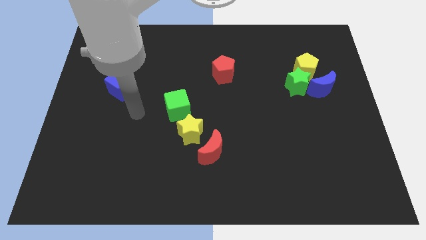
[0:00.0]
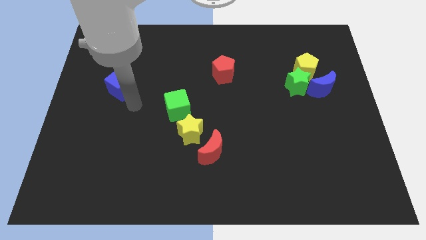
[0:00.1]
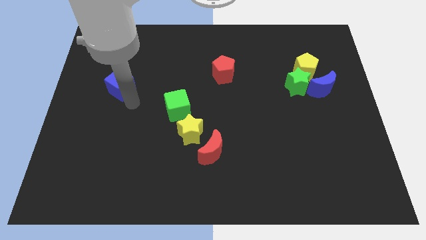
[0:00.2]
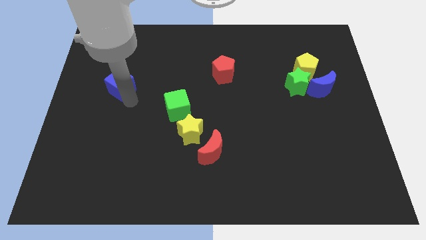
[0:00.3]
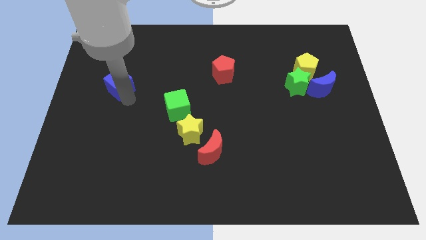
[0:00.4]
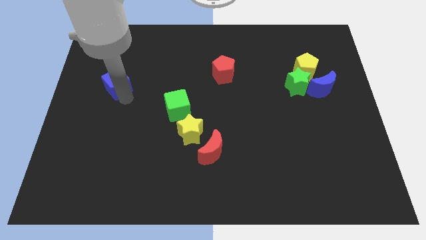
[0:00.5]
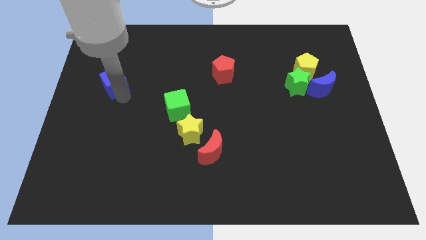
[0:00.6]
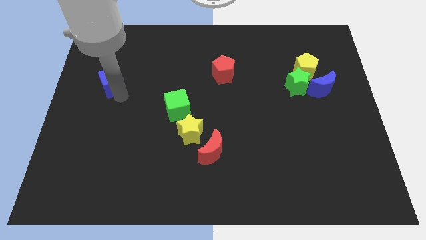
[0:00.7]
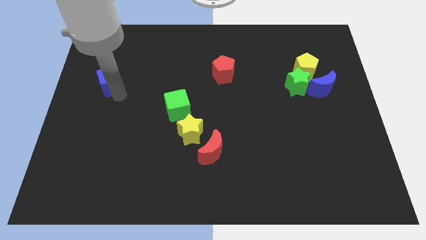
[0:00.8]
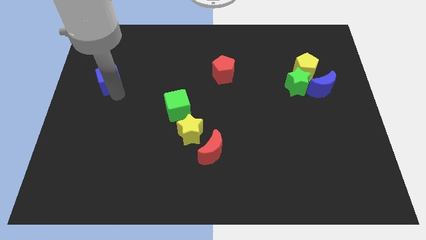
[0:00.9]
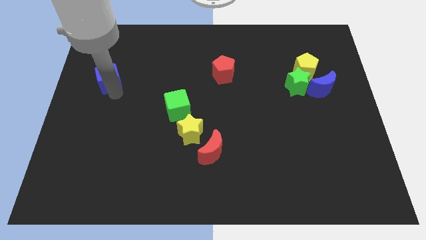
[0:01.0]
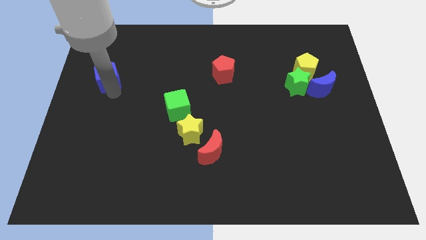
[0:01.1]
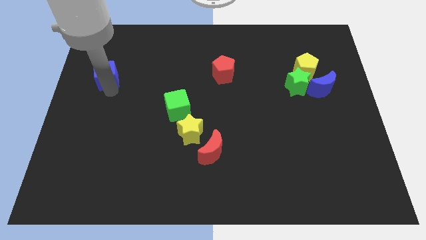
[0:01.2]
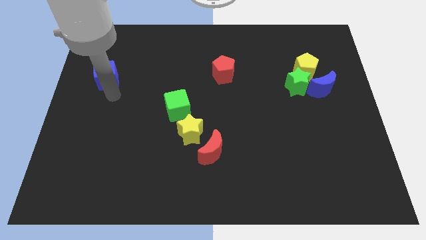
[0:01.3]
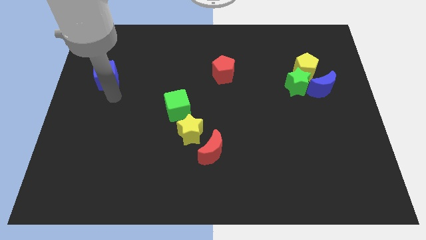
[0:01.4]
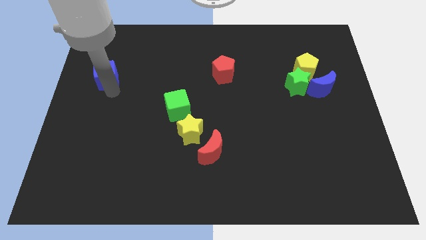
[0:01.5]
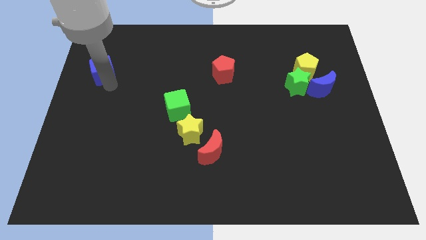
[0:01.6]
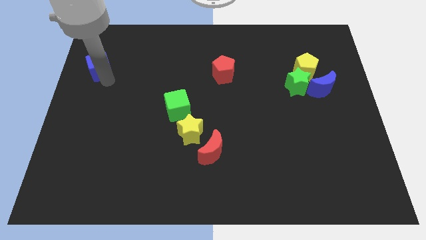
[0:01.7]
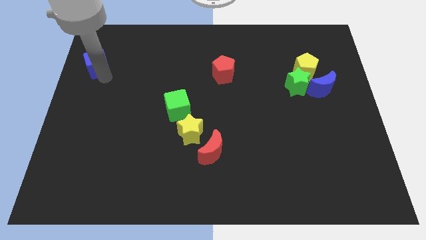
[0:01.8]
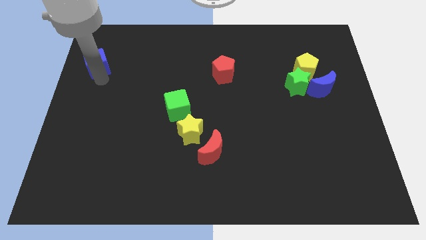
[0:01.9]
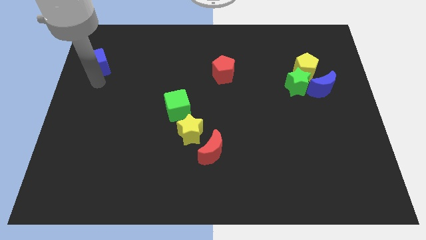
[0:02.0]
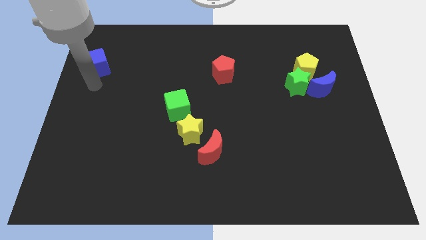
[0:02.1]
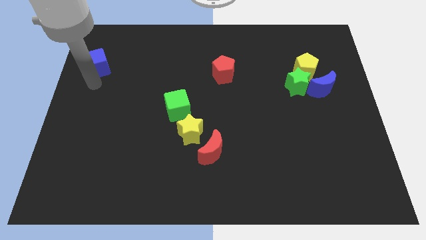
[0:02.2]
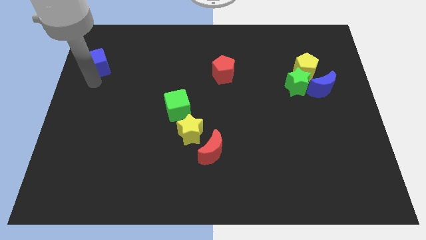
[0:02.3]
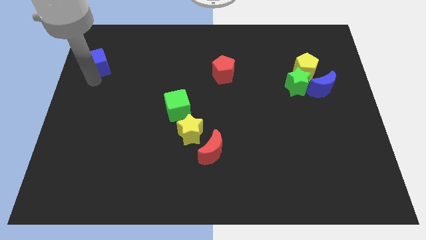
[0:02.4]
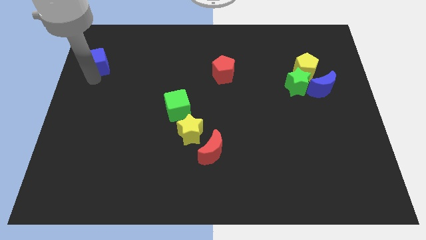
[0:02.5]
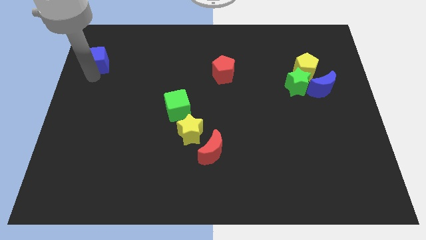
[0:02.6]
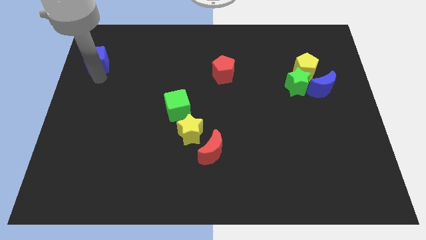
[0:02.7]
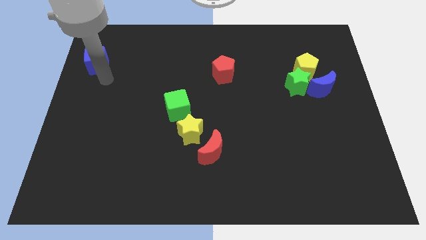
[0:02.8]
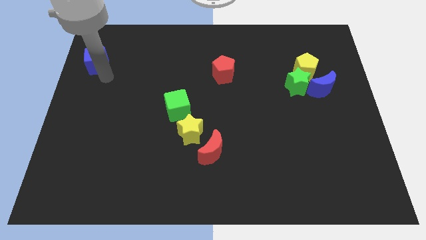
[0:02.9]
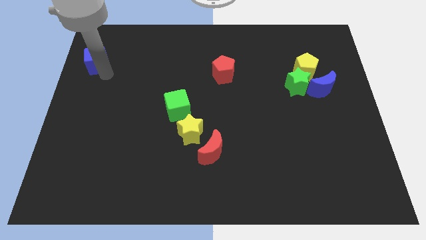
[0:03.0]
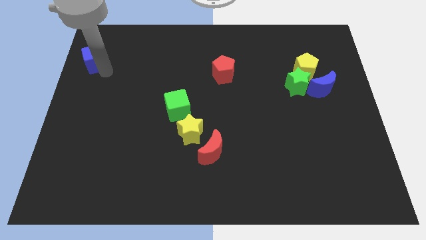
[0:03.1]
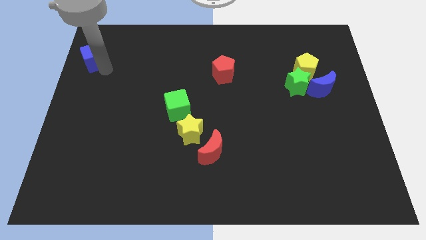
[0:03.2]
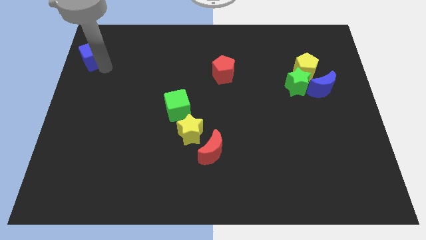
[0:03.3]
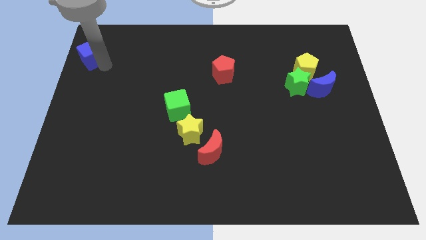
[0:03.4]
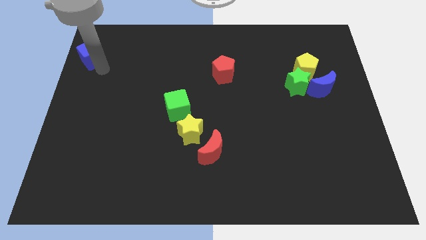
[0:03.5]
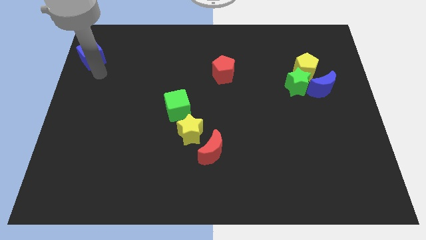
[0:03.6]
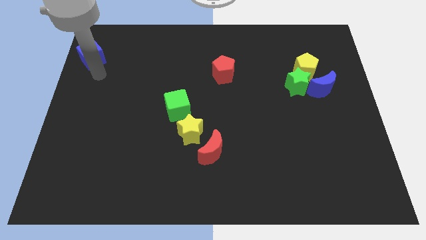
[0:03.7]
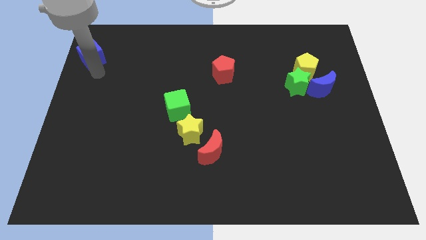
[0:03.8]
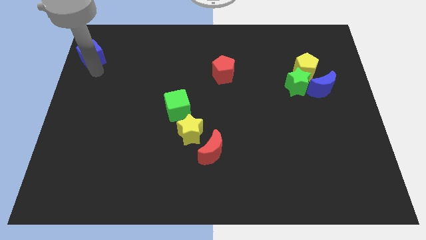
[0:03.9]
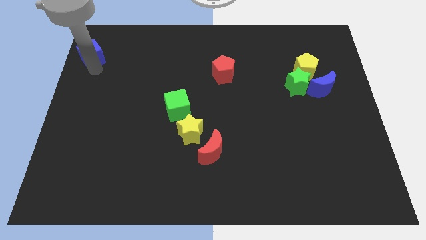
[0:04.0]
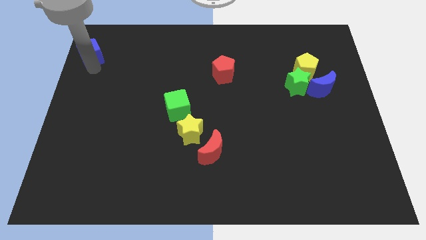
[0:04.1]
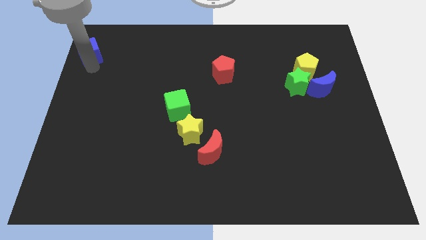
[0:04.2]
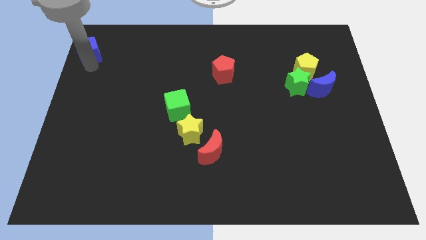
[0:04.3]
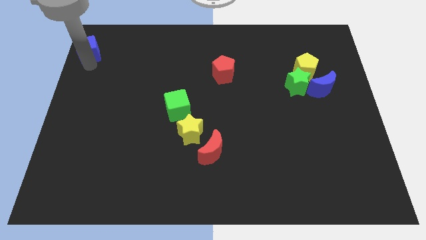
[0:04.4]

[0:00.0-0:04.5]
push the blue cube to the upper left corner

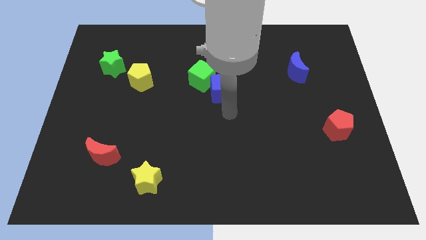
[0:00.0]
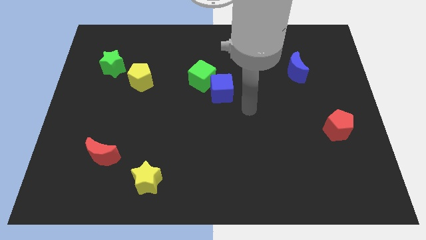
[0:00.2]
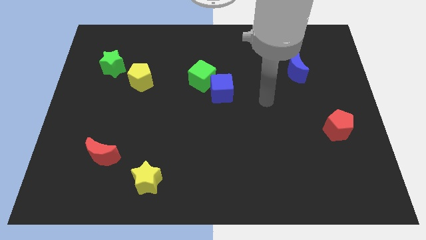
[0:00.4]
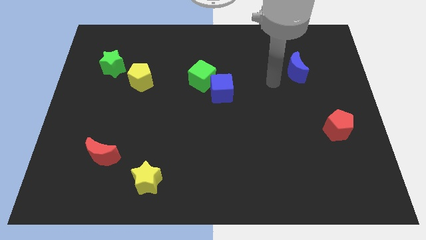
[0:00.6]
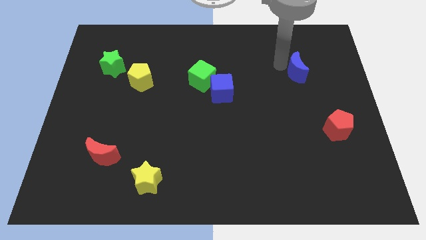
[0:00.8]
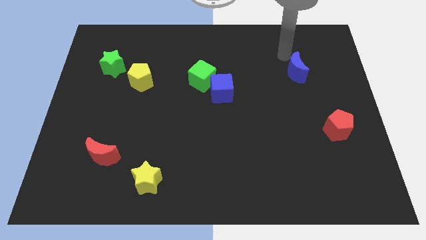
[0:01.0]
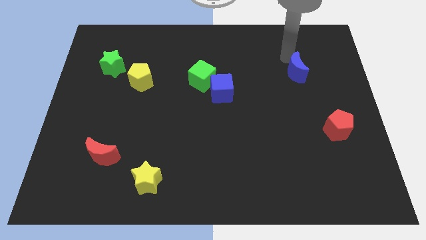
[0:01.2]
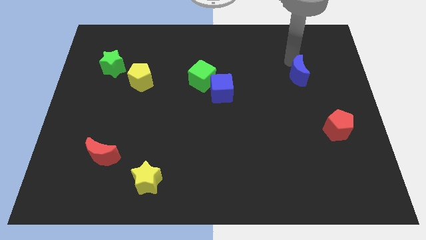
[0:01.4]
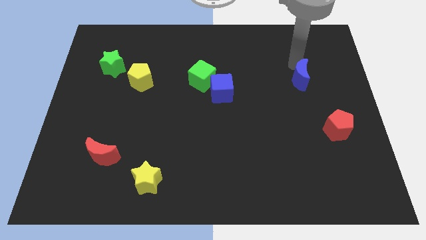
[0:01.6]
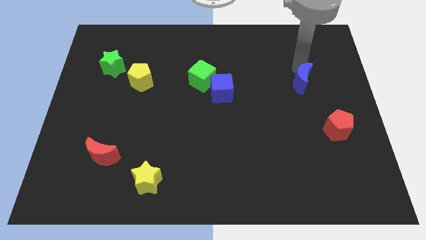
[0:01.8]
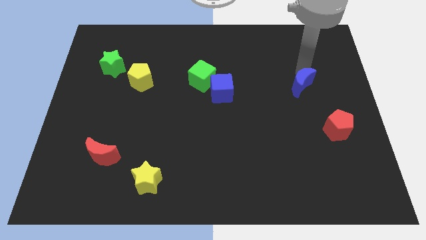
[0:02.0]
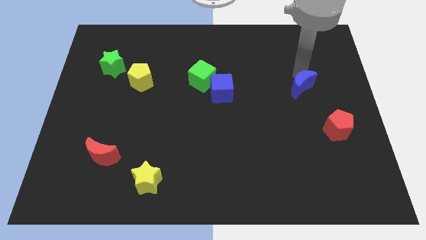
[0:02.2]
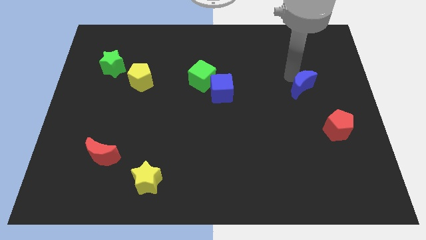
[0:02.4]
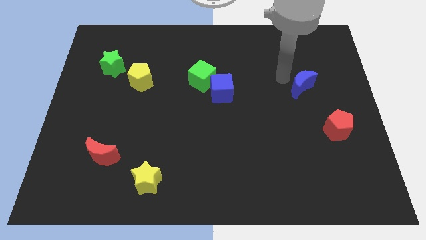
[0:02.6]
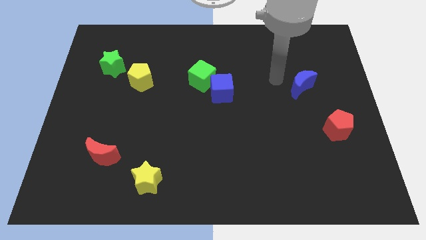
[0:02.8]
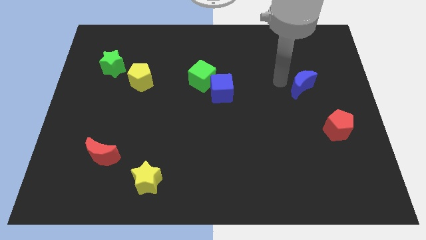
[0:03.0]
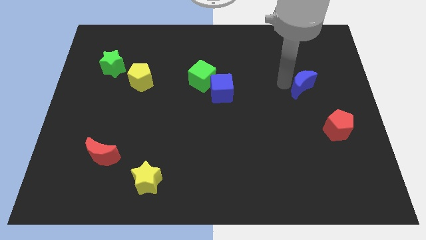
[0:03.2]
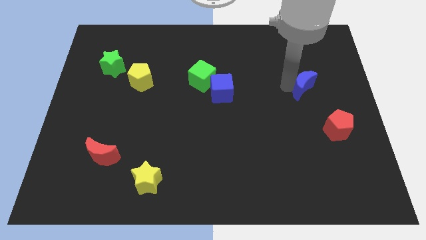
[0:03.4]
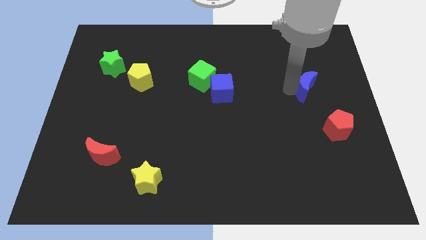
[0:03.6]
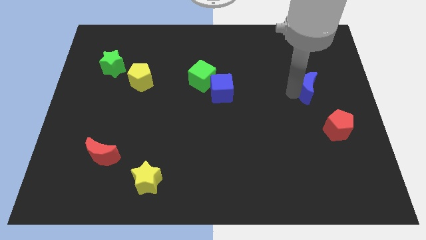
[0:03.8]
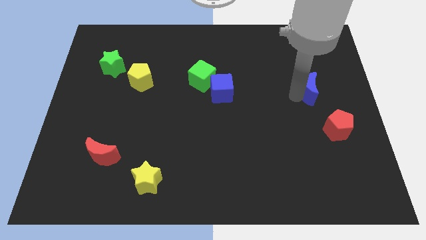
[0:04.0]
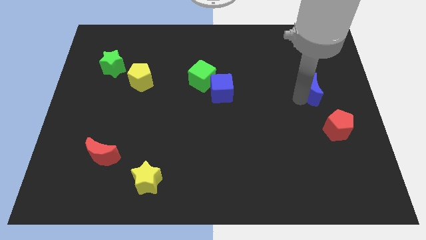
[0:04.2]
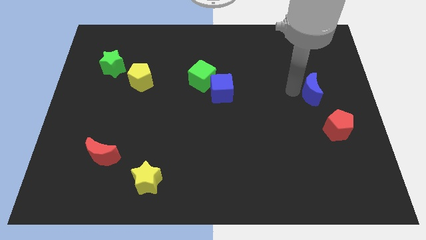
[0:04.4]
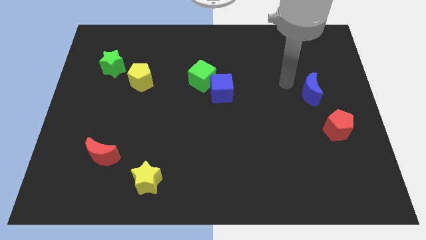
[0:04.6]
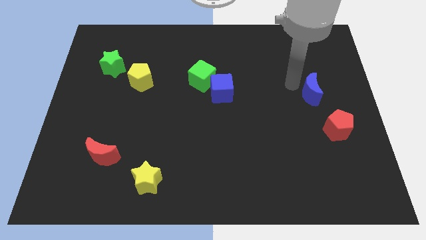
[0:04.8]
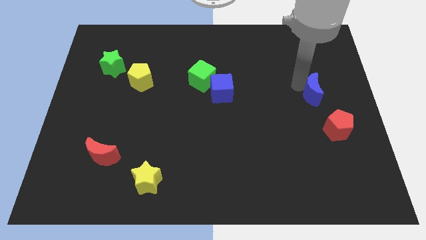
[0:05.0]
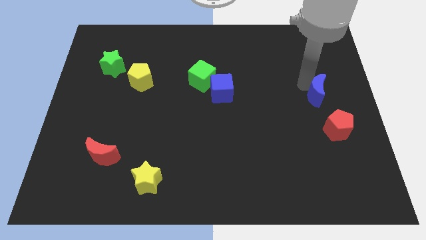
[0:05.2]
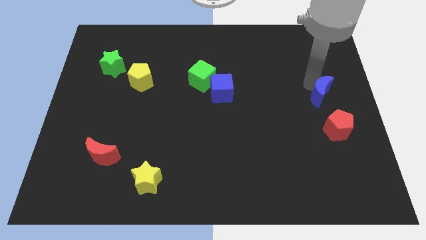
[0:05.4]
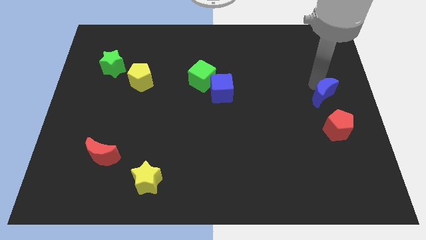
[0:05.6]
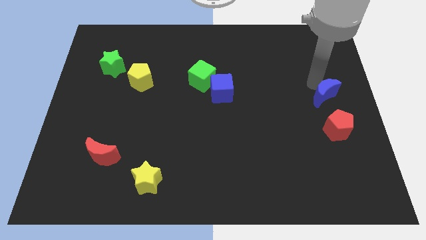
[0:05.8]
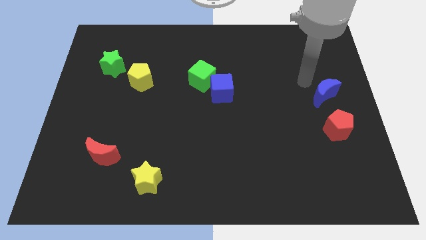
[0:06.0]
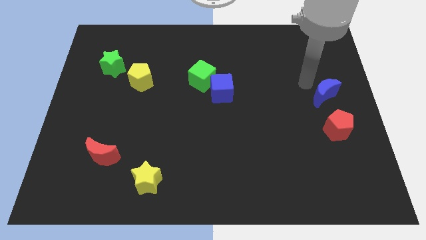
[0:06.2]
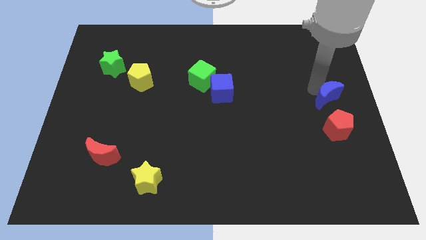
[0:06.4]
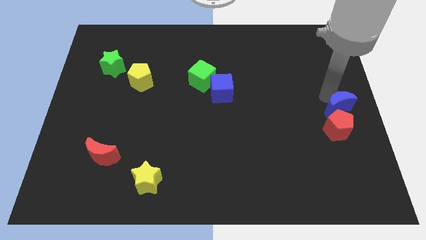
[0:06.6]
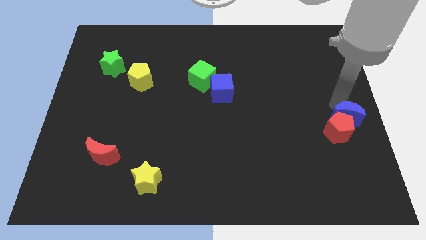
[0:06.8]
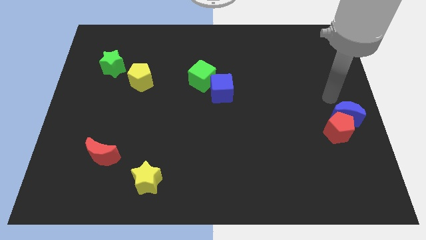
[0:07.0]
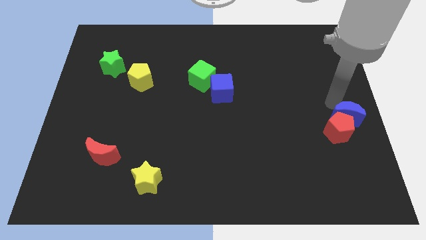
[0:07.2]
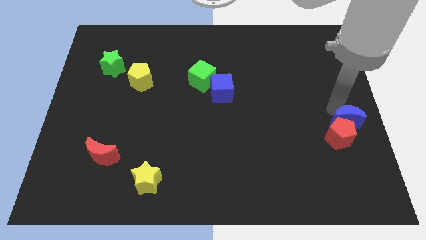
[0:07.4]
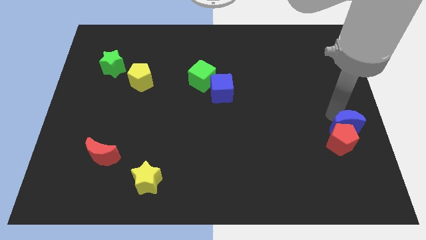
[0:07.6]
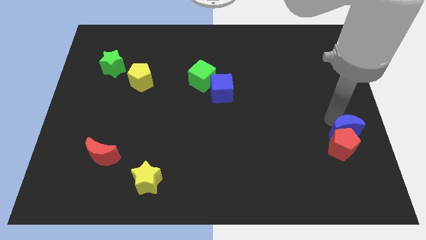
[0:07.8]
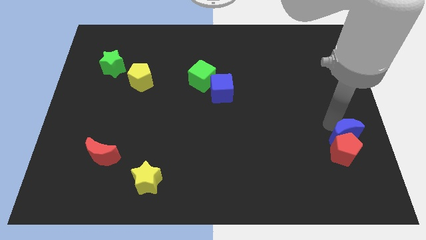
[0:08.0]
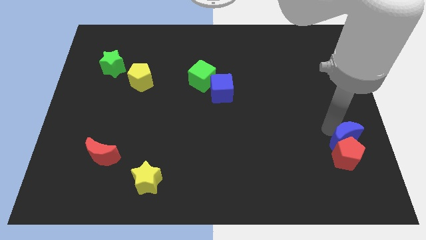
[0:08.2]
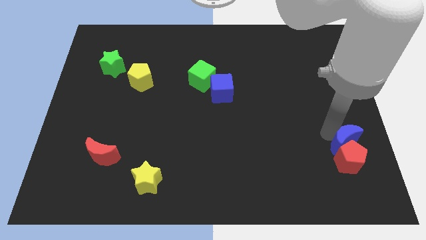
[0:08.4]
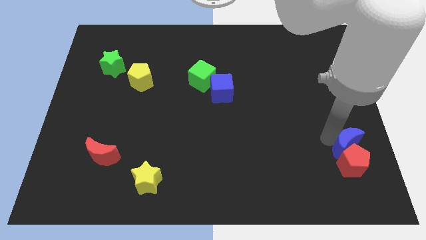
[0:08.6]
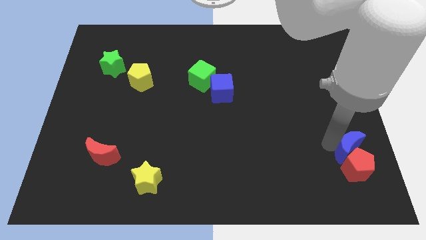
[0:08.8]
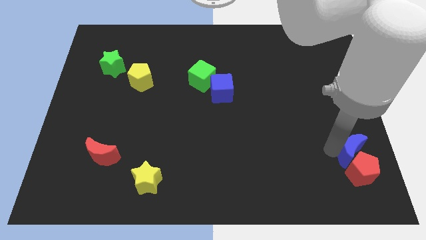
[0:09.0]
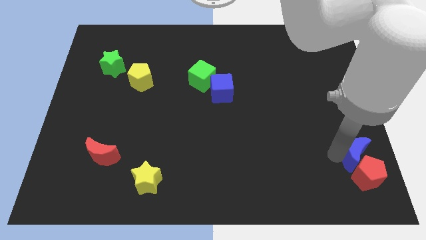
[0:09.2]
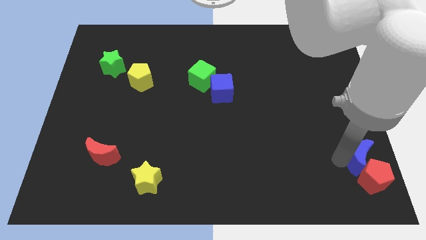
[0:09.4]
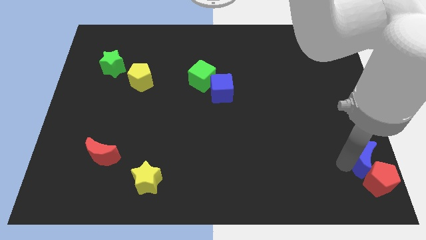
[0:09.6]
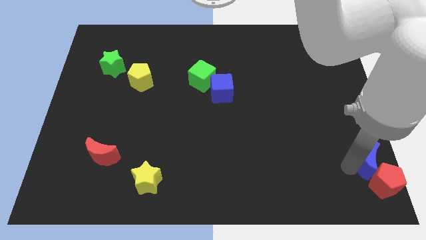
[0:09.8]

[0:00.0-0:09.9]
put the blue moon to the bottom right corner
